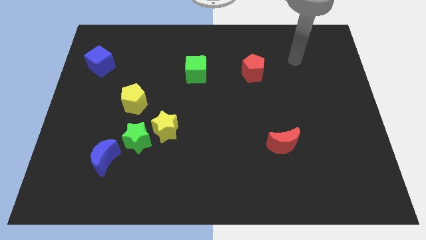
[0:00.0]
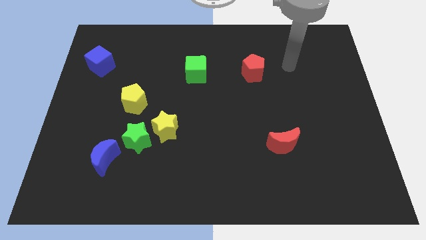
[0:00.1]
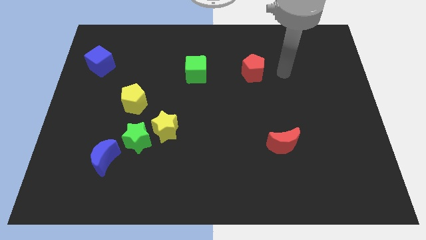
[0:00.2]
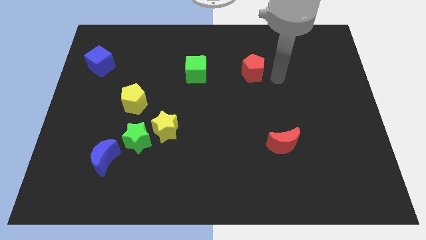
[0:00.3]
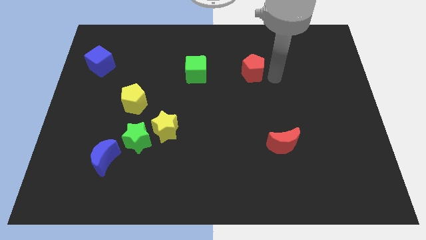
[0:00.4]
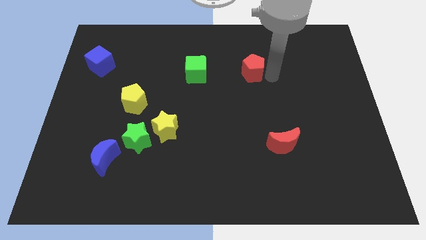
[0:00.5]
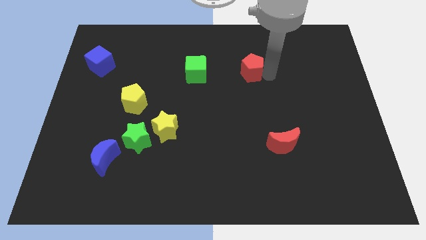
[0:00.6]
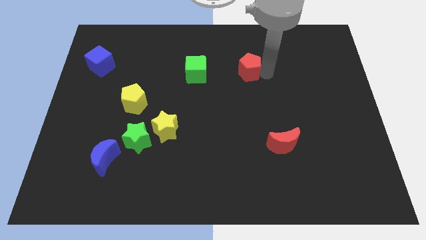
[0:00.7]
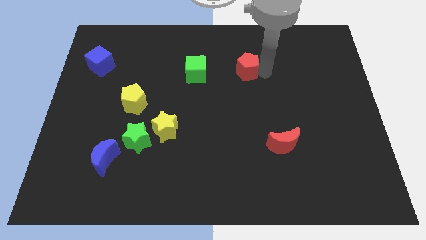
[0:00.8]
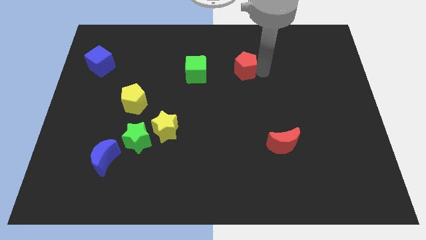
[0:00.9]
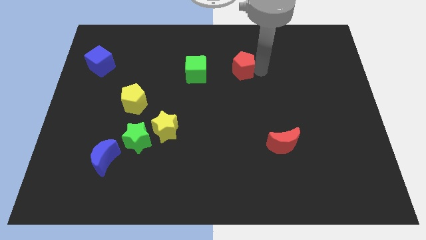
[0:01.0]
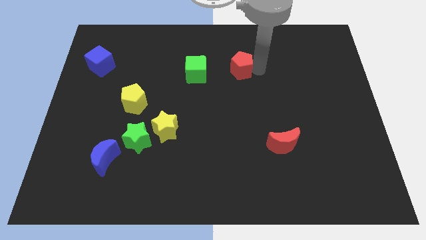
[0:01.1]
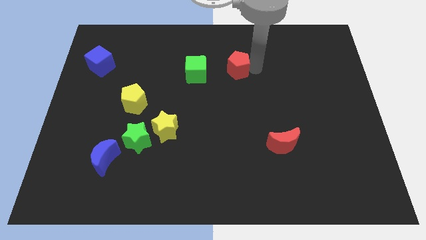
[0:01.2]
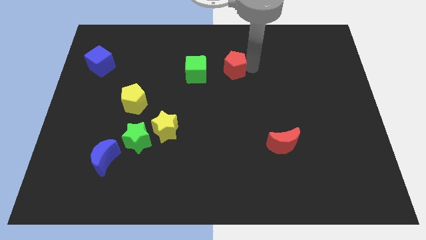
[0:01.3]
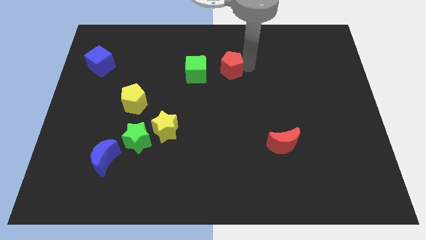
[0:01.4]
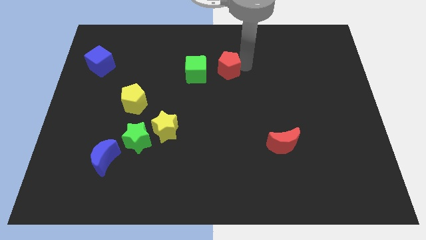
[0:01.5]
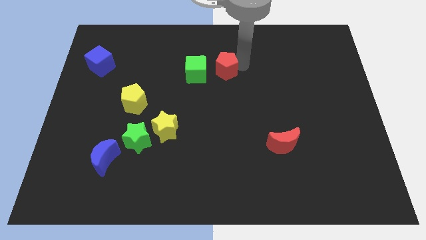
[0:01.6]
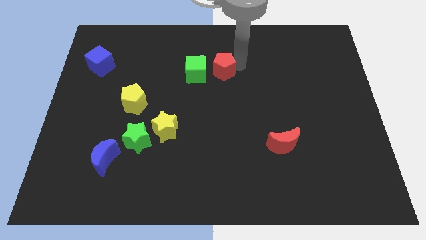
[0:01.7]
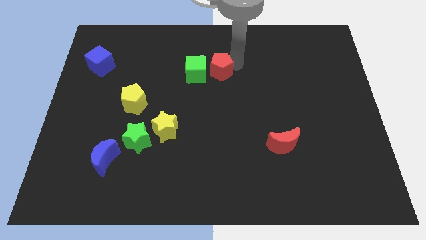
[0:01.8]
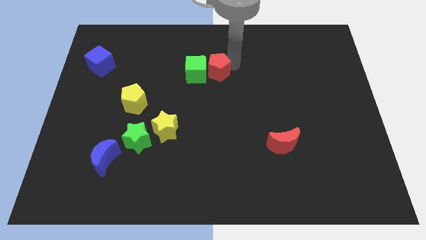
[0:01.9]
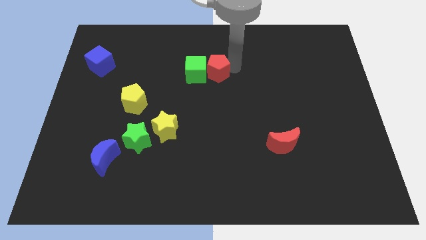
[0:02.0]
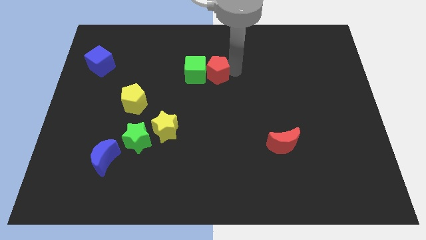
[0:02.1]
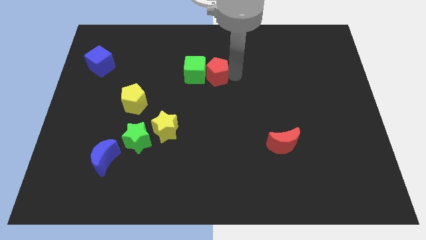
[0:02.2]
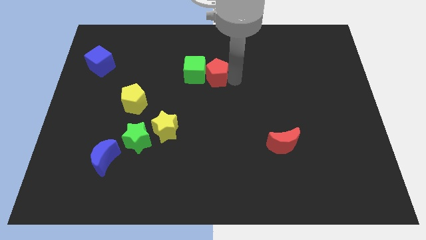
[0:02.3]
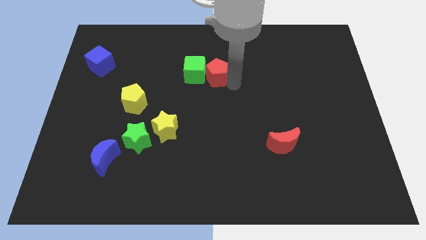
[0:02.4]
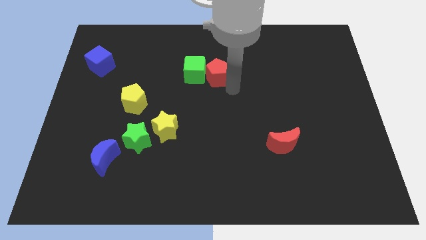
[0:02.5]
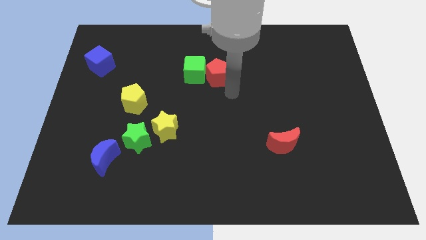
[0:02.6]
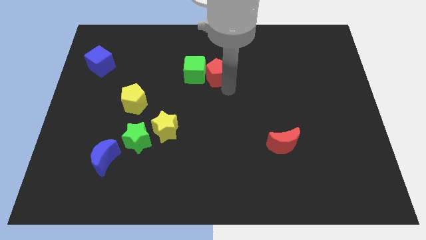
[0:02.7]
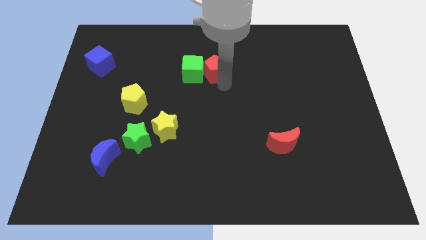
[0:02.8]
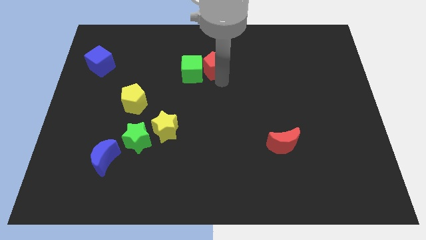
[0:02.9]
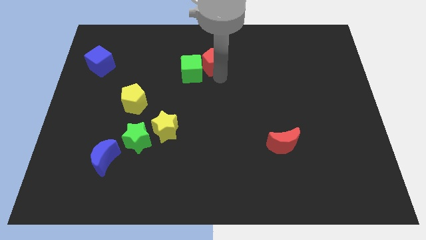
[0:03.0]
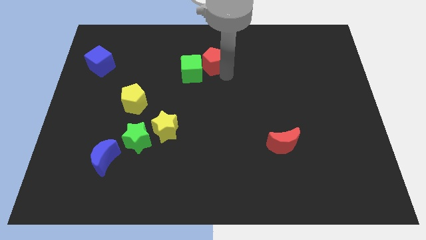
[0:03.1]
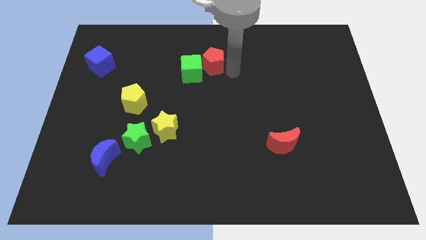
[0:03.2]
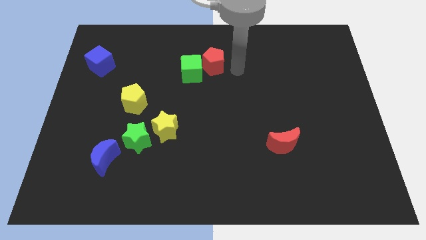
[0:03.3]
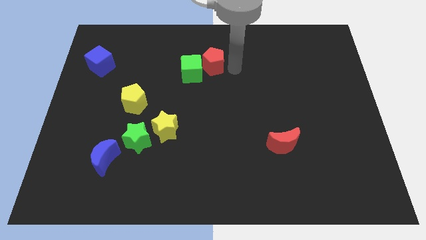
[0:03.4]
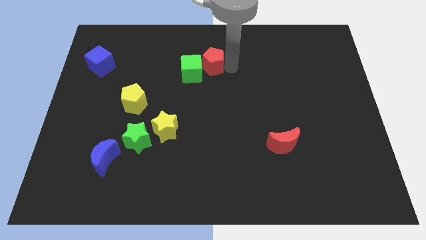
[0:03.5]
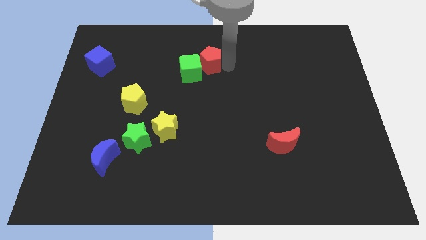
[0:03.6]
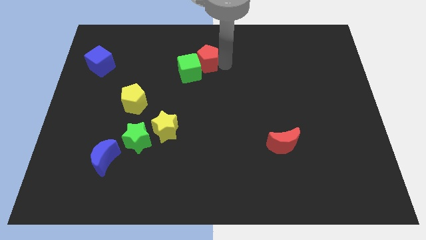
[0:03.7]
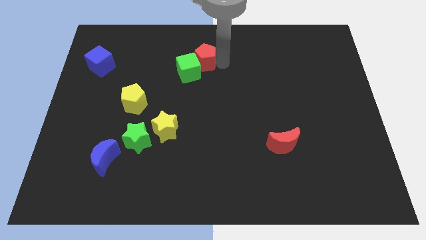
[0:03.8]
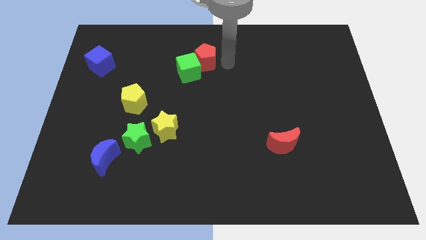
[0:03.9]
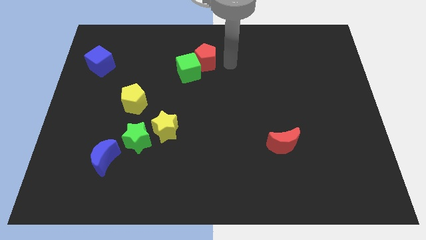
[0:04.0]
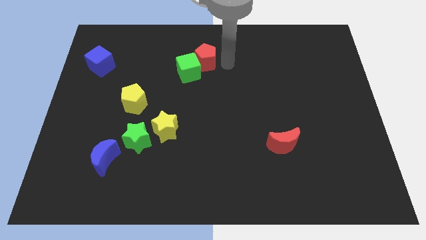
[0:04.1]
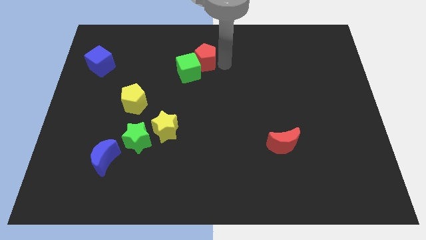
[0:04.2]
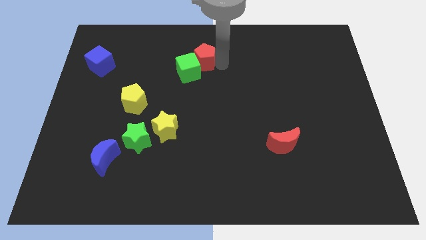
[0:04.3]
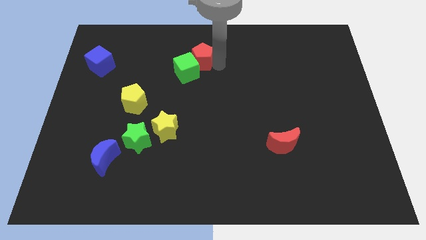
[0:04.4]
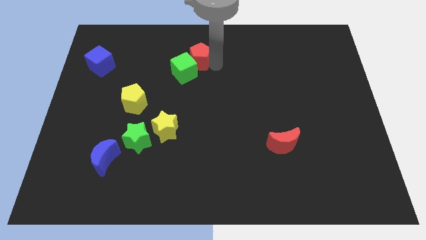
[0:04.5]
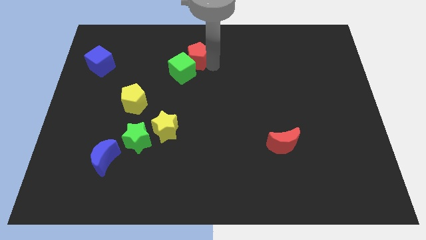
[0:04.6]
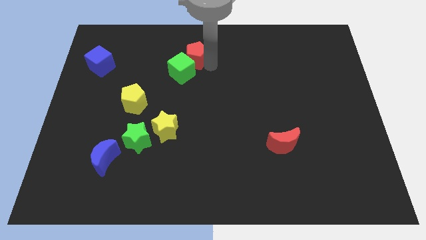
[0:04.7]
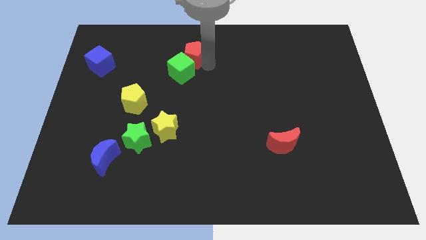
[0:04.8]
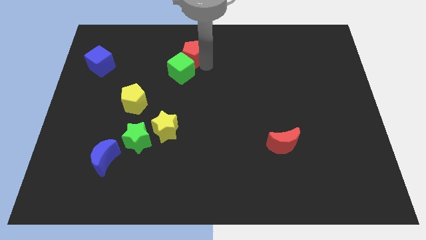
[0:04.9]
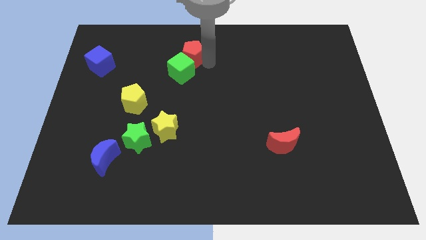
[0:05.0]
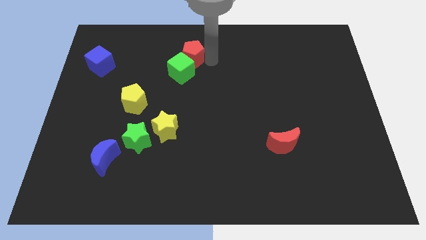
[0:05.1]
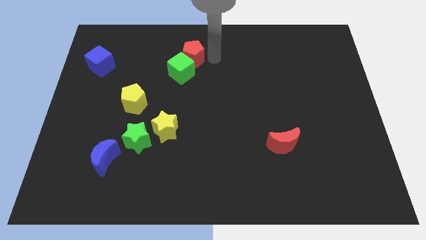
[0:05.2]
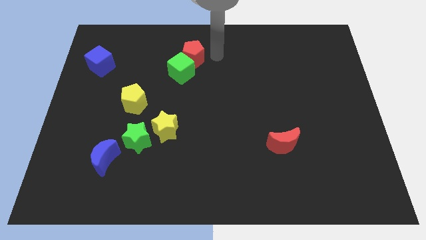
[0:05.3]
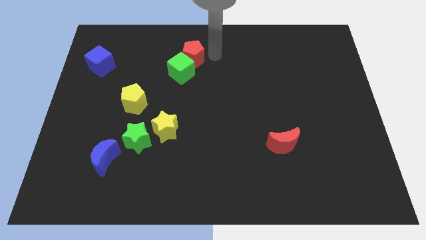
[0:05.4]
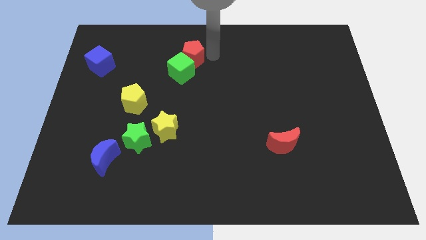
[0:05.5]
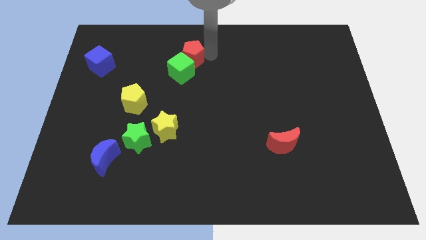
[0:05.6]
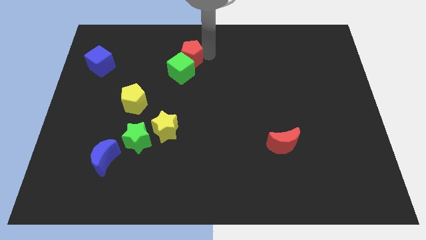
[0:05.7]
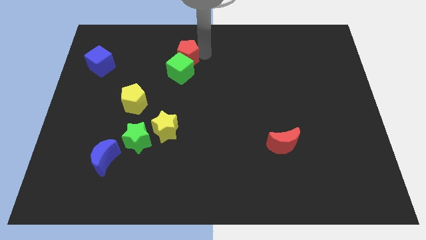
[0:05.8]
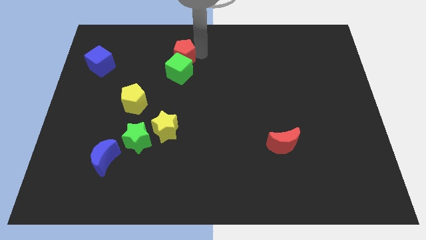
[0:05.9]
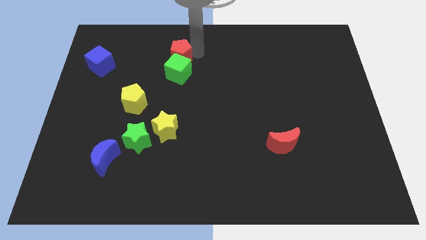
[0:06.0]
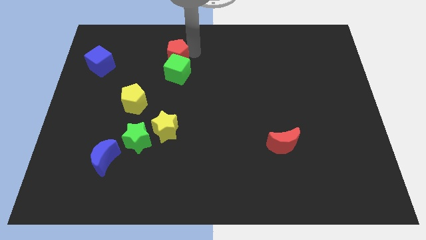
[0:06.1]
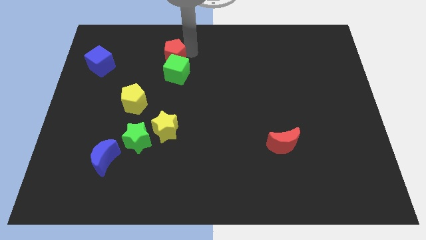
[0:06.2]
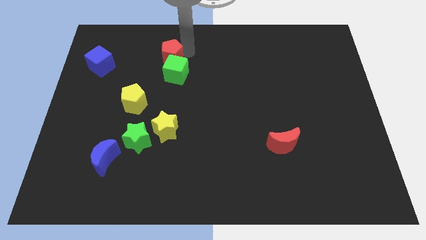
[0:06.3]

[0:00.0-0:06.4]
push the red pentagon to the left

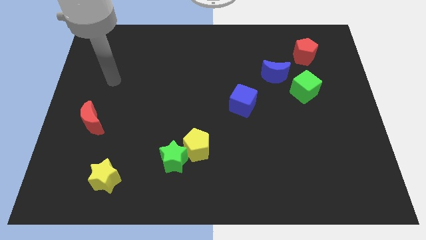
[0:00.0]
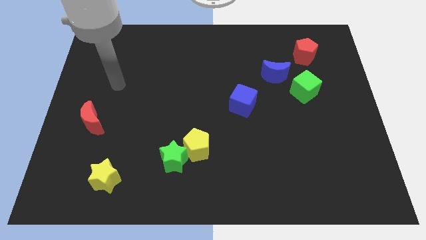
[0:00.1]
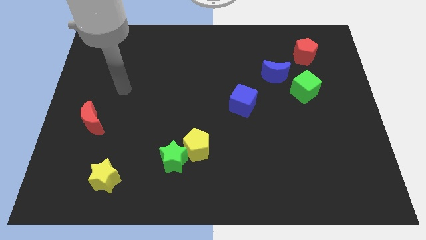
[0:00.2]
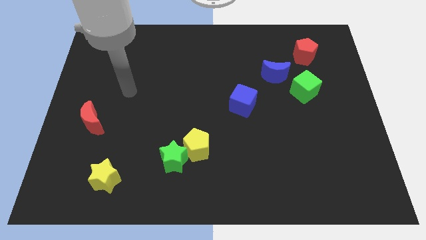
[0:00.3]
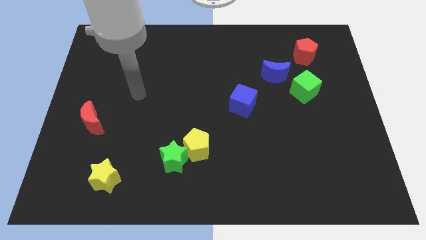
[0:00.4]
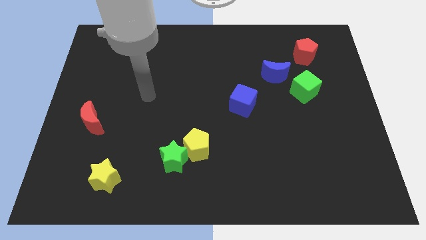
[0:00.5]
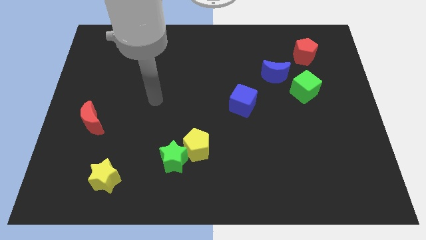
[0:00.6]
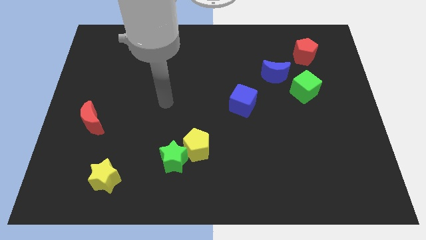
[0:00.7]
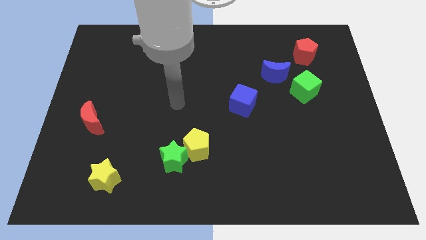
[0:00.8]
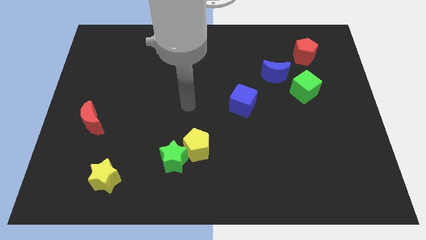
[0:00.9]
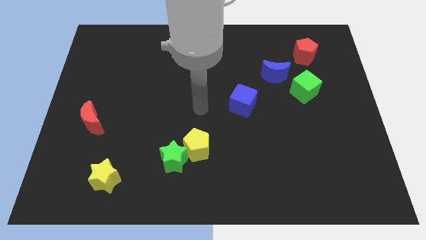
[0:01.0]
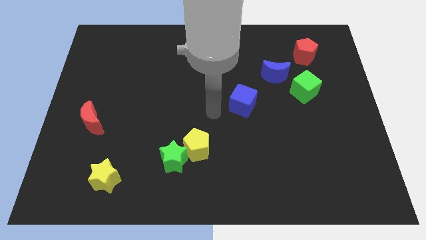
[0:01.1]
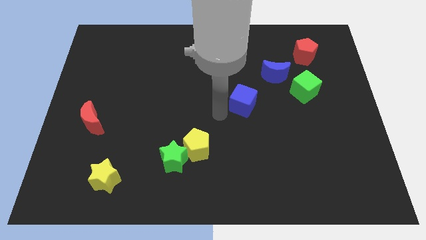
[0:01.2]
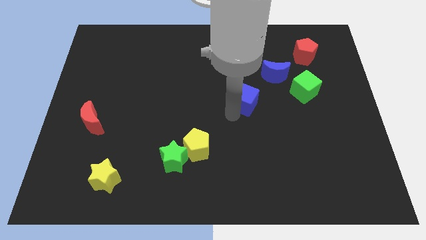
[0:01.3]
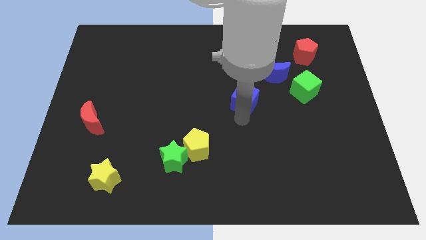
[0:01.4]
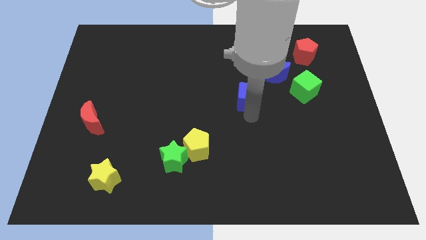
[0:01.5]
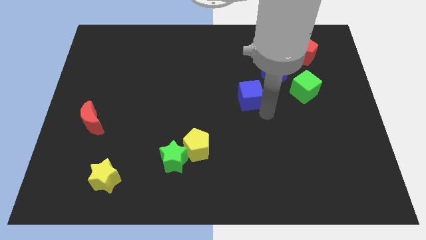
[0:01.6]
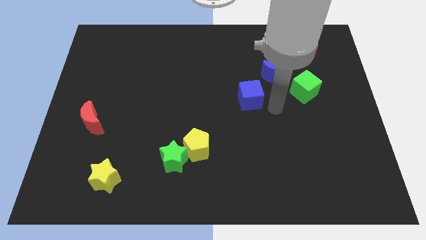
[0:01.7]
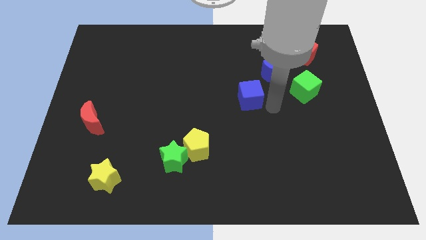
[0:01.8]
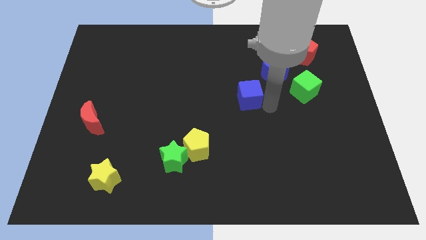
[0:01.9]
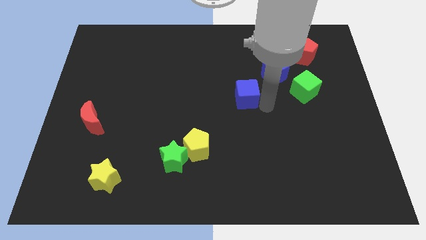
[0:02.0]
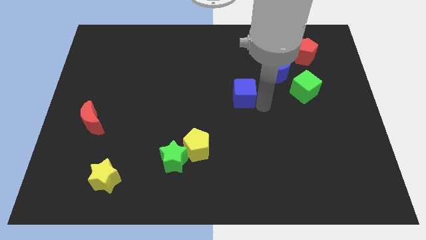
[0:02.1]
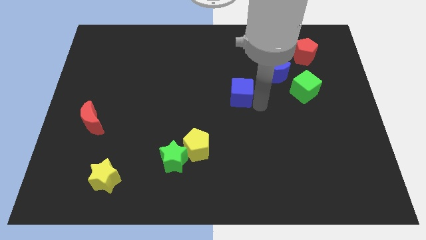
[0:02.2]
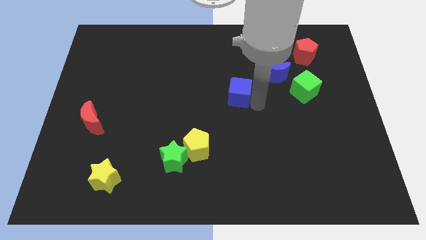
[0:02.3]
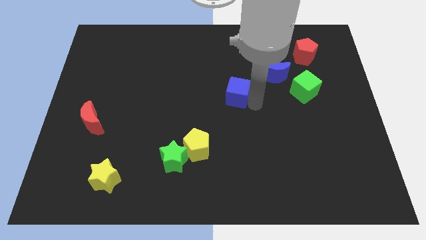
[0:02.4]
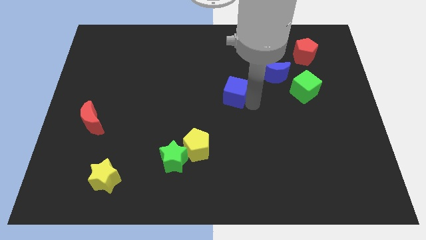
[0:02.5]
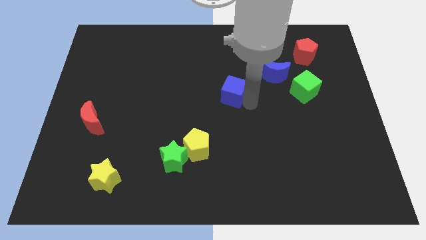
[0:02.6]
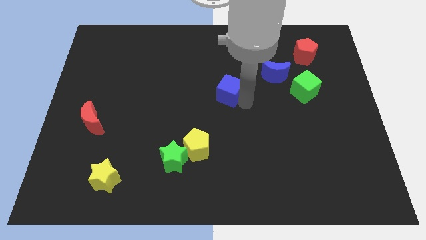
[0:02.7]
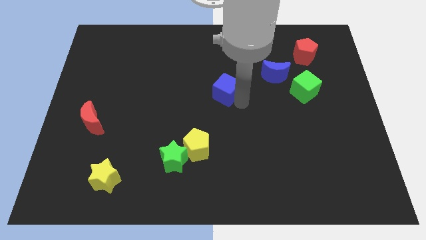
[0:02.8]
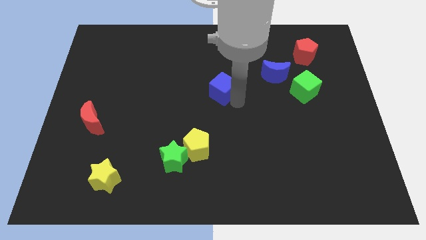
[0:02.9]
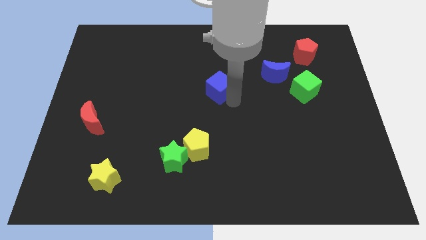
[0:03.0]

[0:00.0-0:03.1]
slightly move the blue cube up and to the left diagonally
